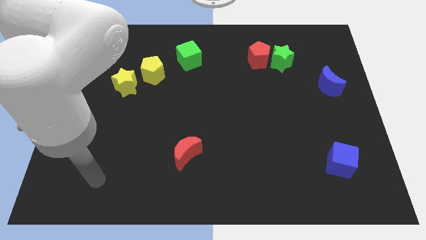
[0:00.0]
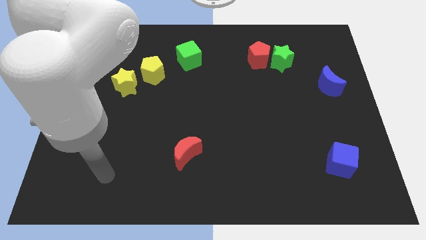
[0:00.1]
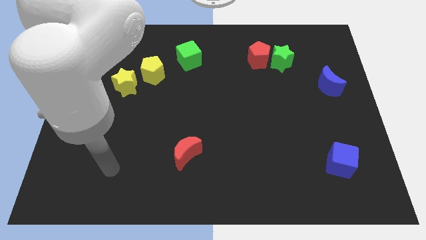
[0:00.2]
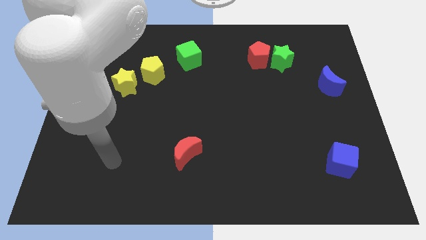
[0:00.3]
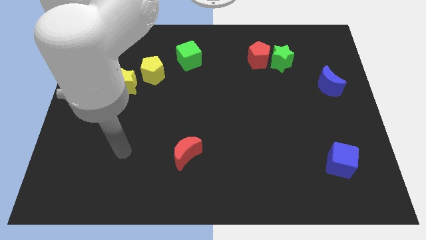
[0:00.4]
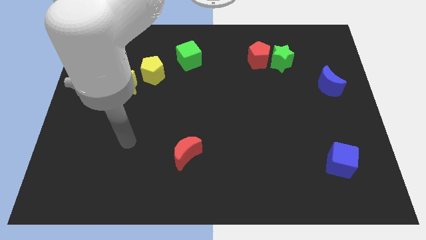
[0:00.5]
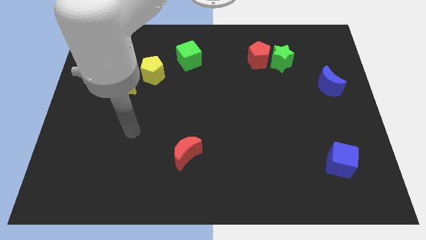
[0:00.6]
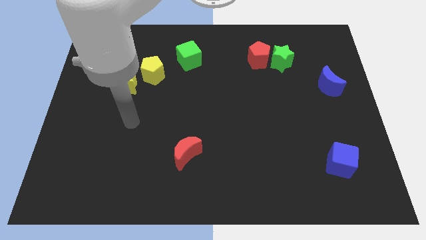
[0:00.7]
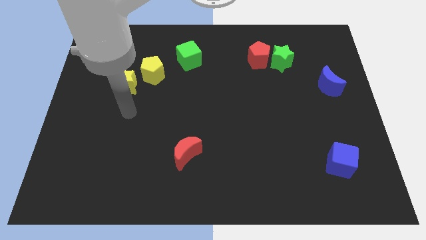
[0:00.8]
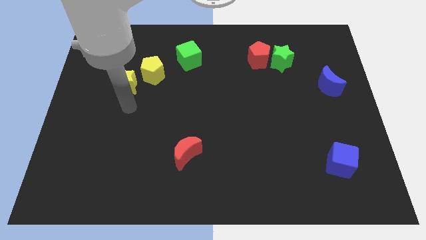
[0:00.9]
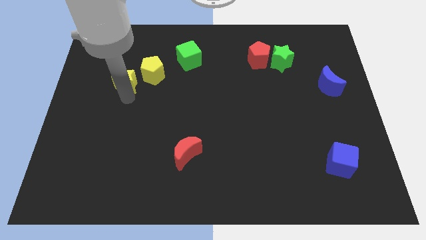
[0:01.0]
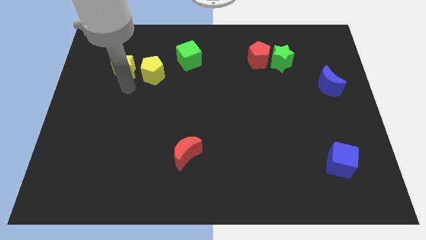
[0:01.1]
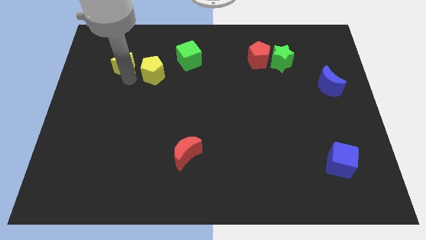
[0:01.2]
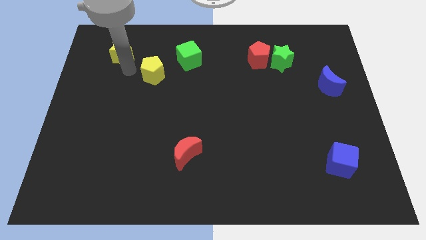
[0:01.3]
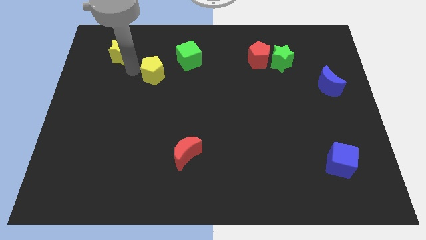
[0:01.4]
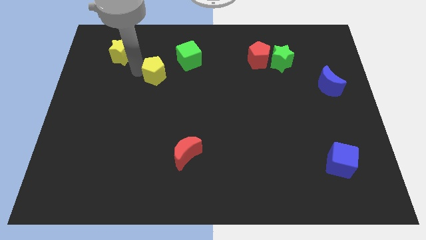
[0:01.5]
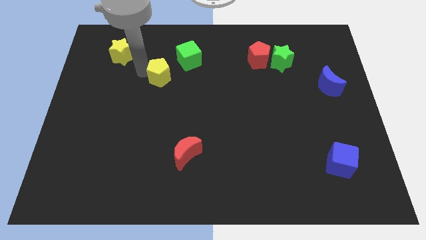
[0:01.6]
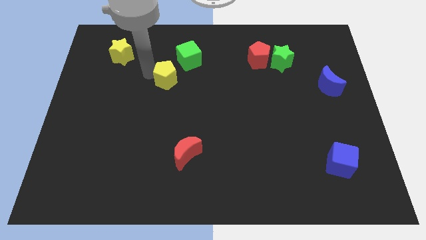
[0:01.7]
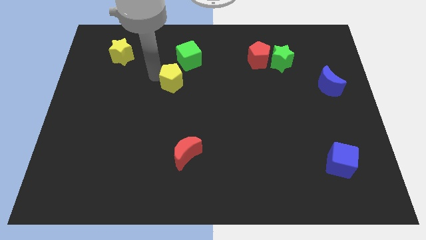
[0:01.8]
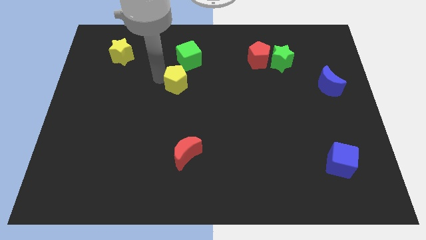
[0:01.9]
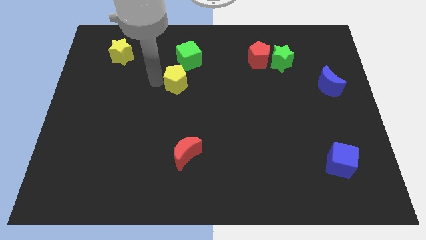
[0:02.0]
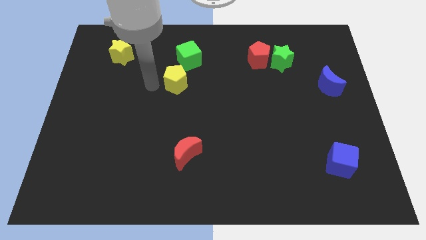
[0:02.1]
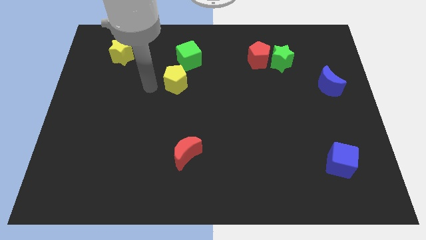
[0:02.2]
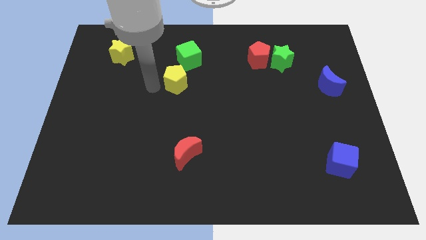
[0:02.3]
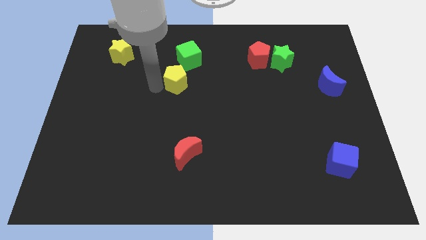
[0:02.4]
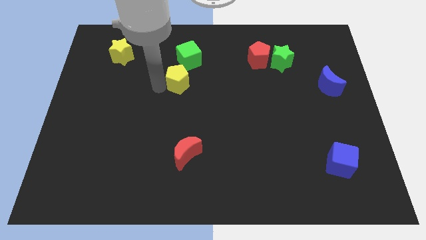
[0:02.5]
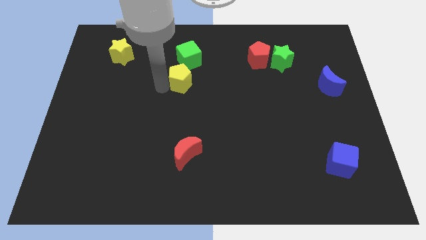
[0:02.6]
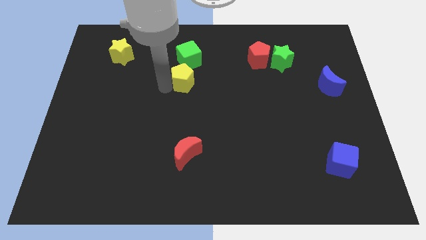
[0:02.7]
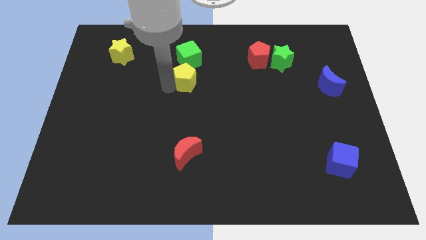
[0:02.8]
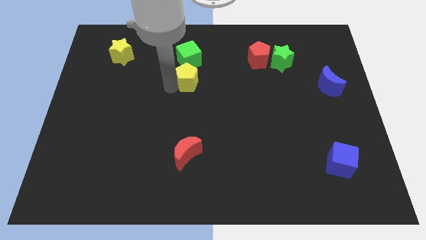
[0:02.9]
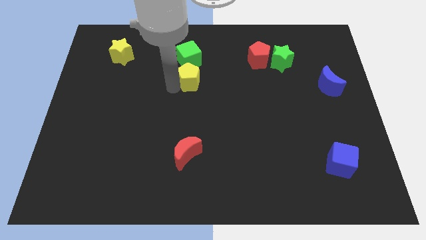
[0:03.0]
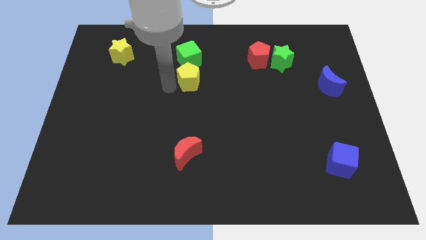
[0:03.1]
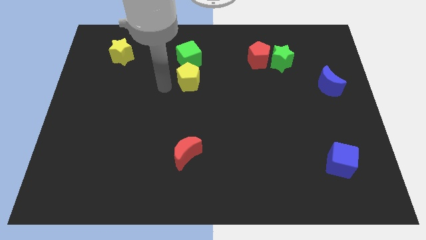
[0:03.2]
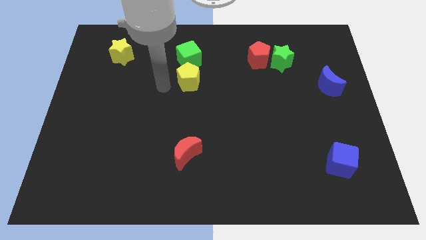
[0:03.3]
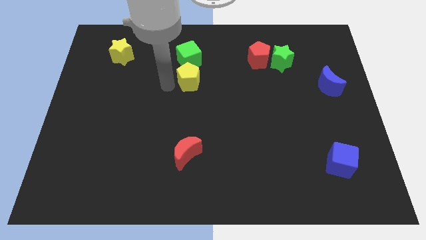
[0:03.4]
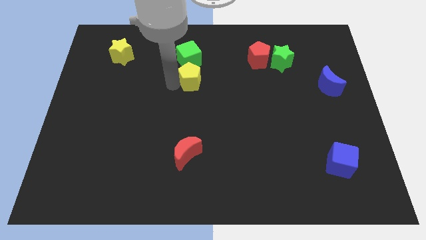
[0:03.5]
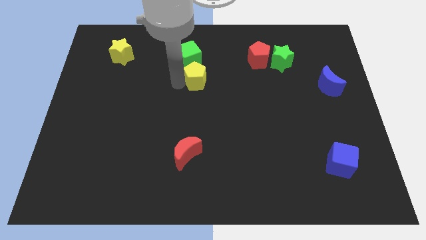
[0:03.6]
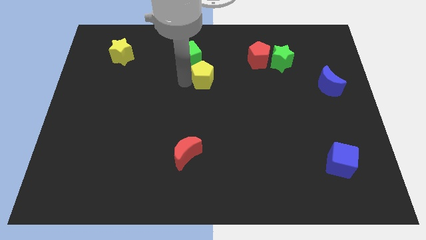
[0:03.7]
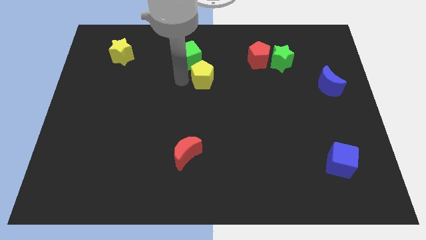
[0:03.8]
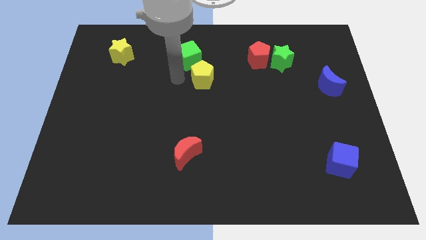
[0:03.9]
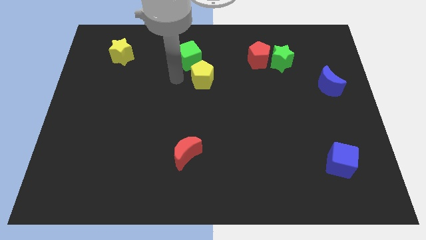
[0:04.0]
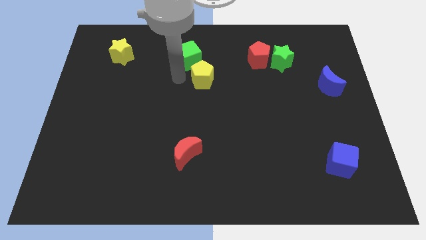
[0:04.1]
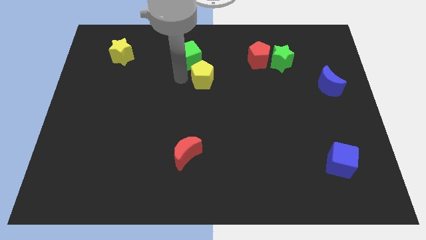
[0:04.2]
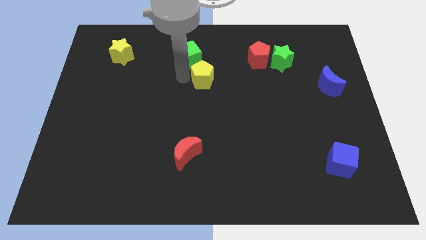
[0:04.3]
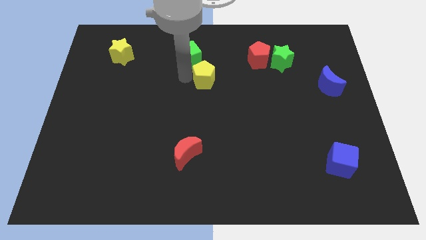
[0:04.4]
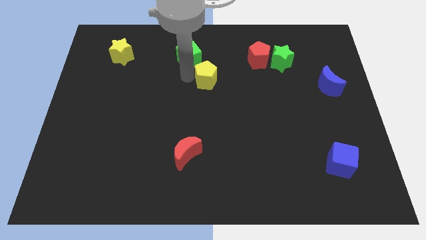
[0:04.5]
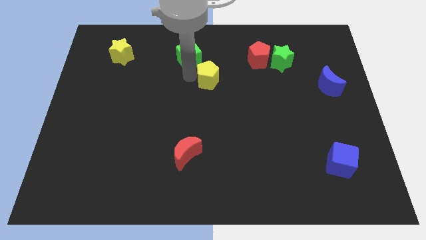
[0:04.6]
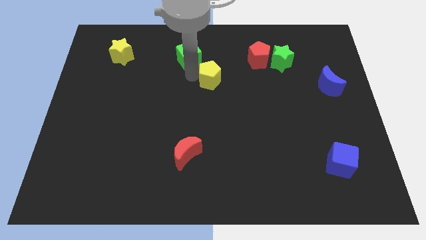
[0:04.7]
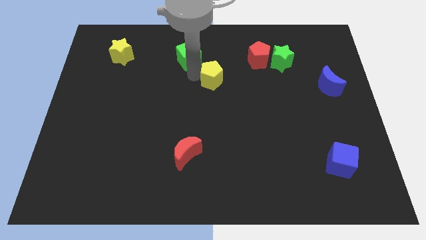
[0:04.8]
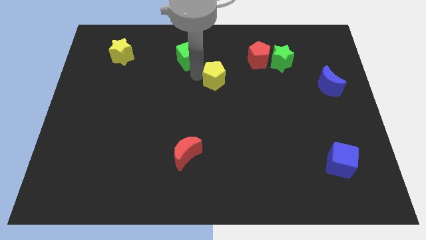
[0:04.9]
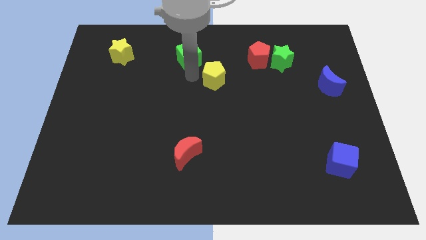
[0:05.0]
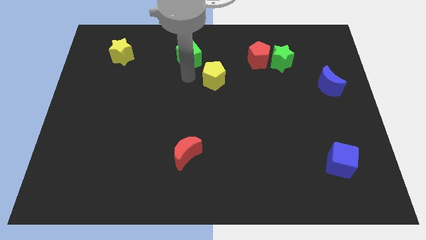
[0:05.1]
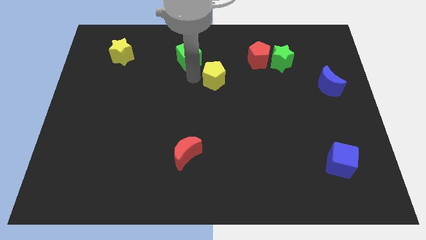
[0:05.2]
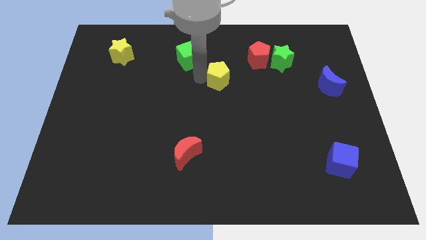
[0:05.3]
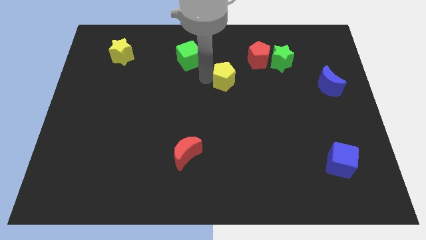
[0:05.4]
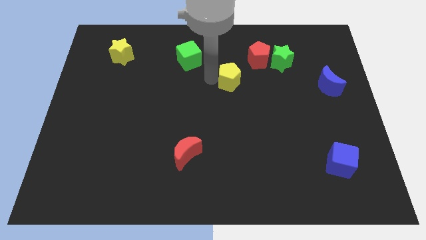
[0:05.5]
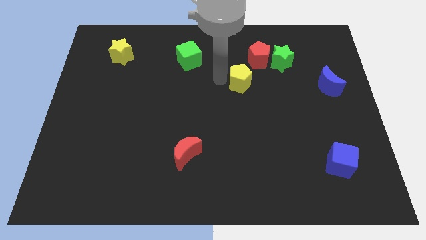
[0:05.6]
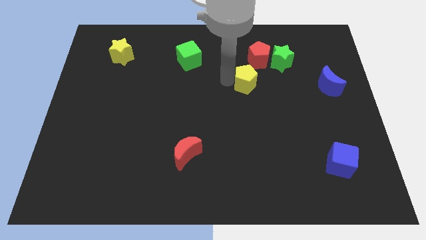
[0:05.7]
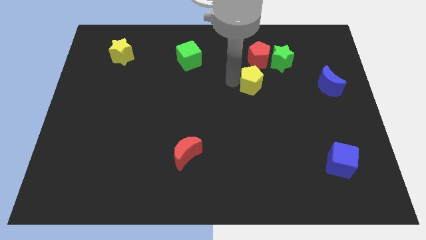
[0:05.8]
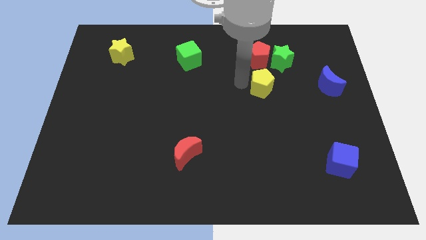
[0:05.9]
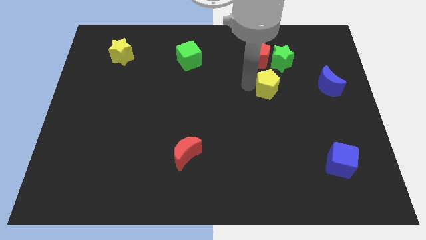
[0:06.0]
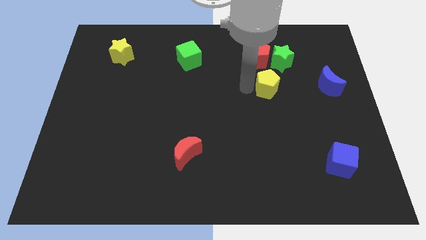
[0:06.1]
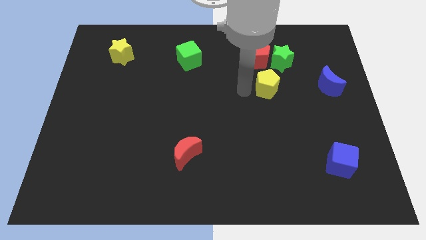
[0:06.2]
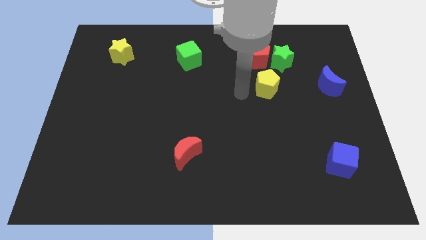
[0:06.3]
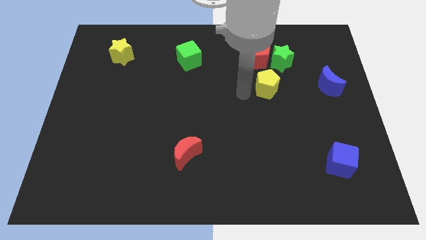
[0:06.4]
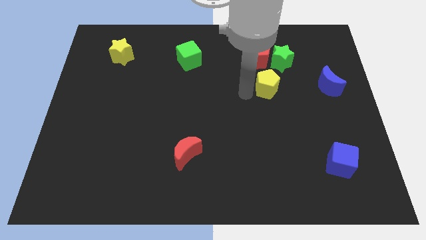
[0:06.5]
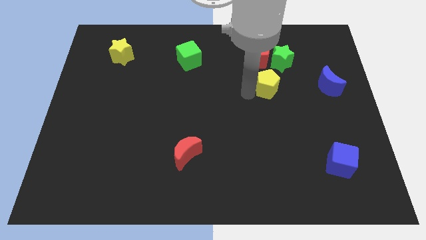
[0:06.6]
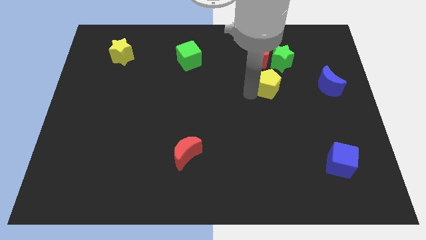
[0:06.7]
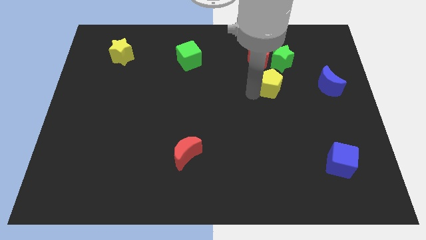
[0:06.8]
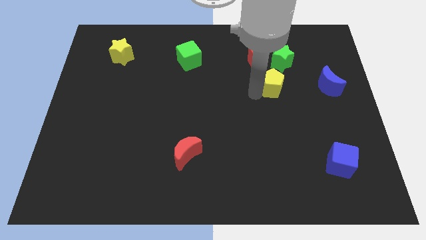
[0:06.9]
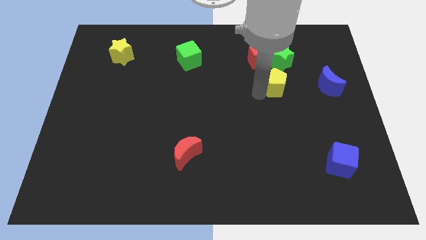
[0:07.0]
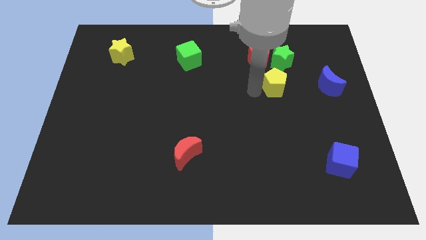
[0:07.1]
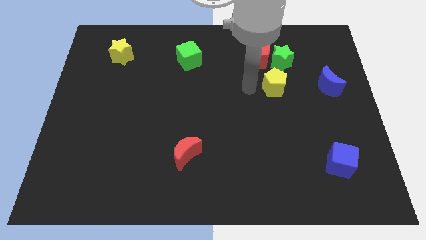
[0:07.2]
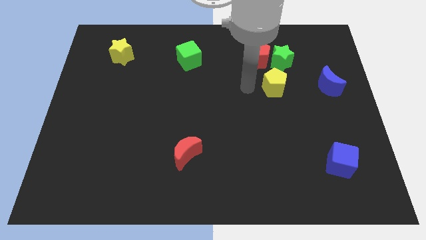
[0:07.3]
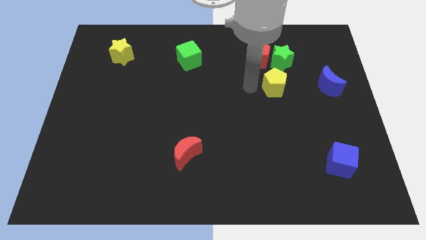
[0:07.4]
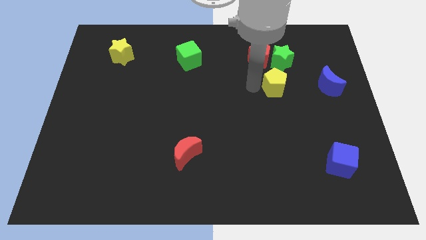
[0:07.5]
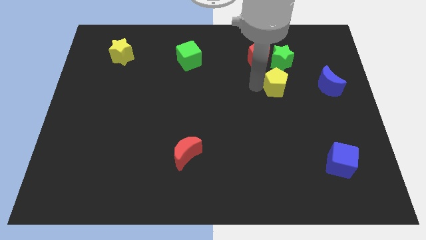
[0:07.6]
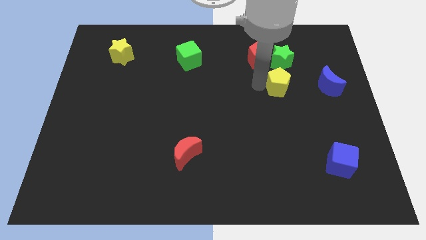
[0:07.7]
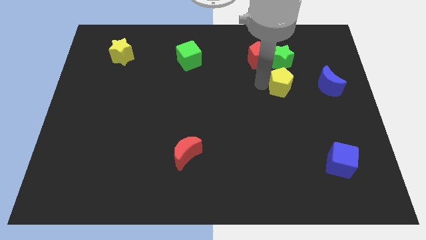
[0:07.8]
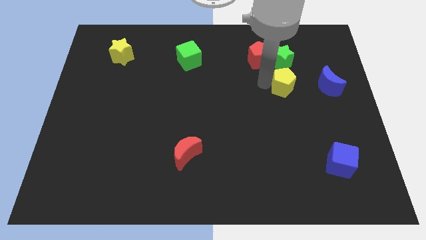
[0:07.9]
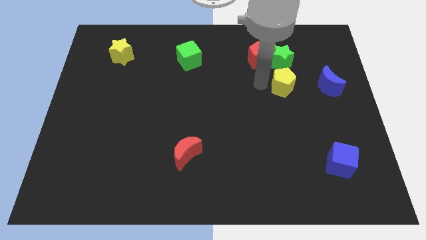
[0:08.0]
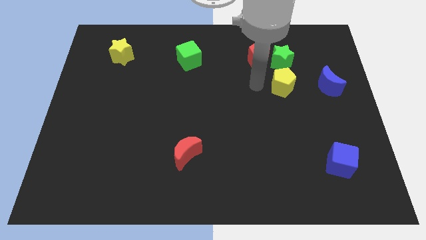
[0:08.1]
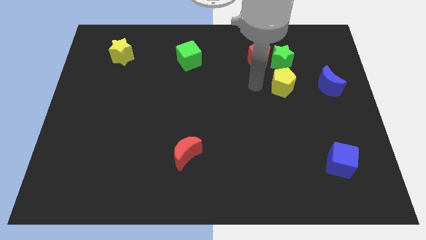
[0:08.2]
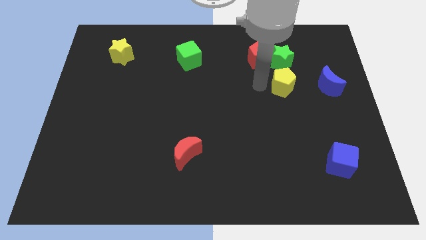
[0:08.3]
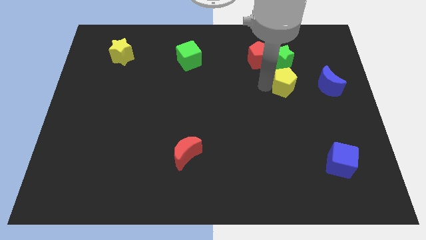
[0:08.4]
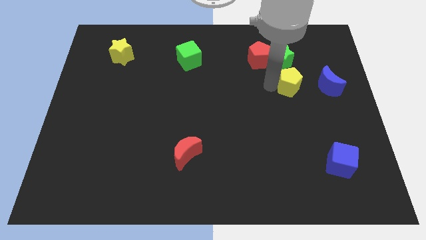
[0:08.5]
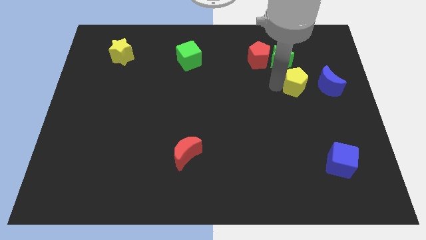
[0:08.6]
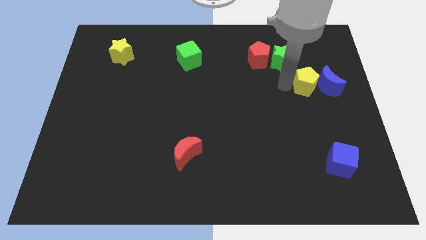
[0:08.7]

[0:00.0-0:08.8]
move the yellow pentagon to the blue moon
